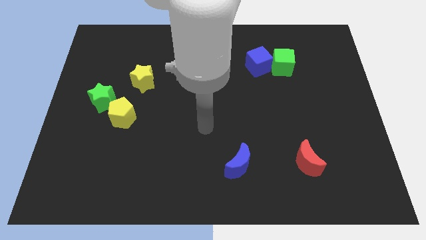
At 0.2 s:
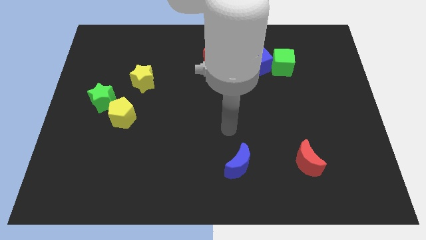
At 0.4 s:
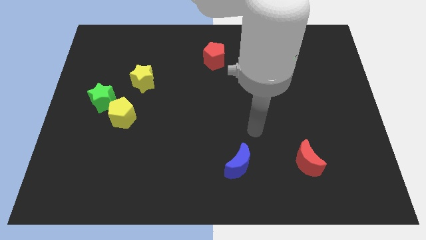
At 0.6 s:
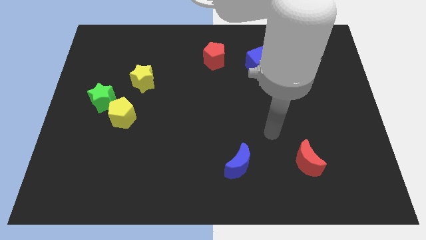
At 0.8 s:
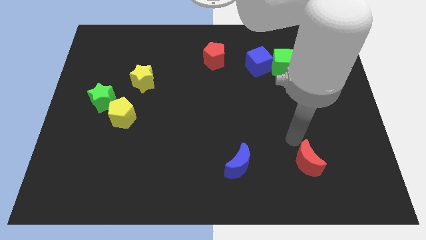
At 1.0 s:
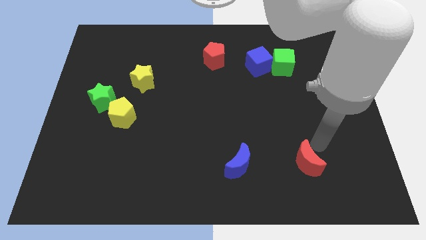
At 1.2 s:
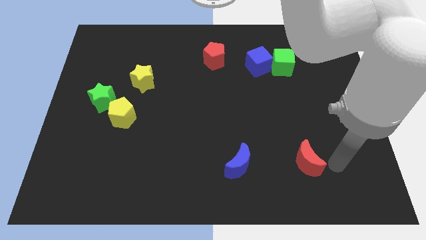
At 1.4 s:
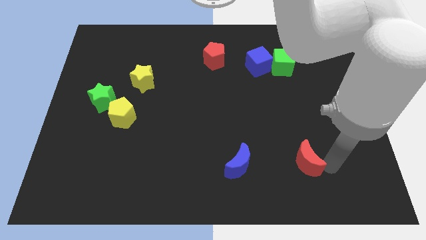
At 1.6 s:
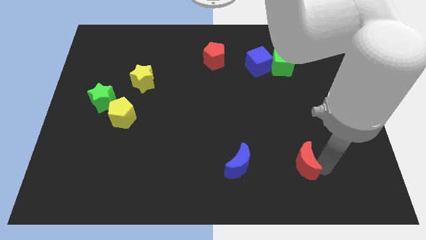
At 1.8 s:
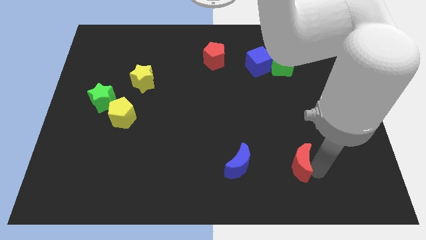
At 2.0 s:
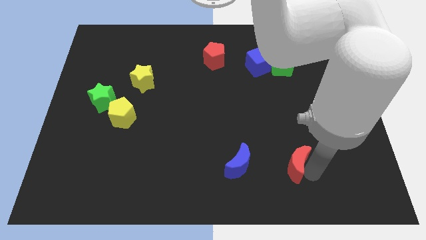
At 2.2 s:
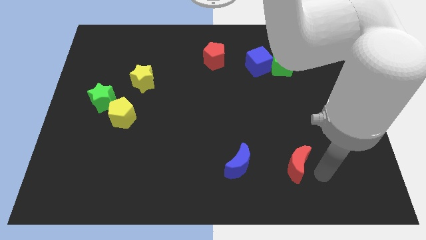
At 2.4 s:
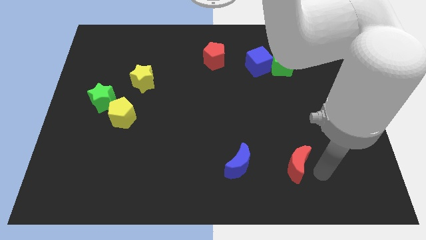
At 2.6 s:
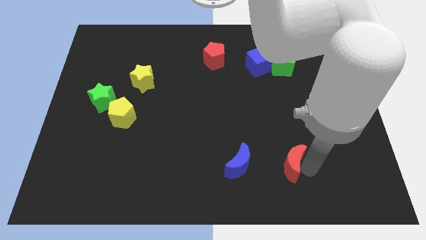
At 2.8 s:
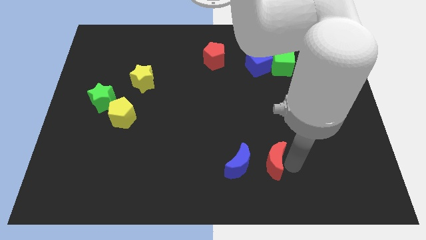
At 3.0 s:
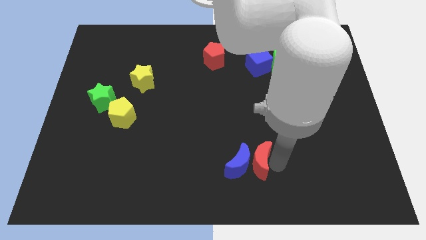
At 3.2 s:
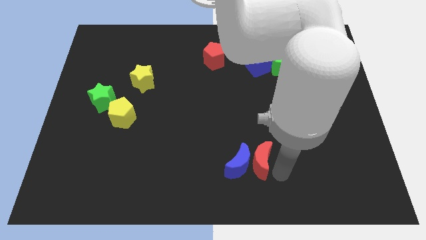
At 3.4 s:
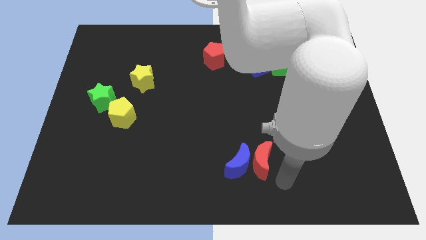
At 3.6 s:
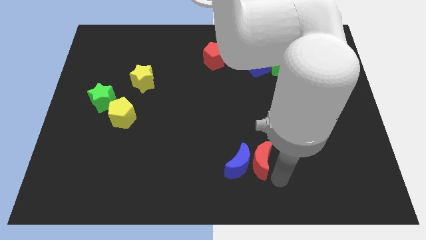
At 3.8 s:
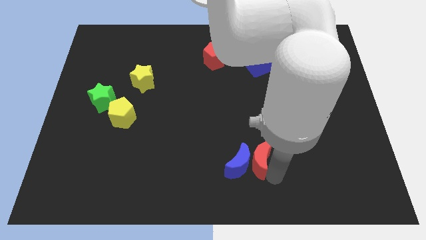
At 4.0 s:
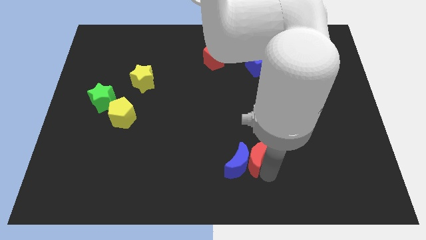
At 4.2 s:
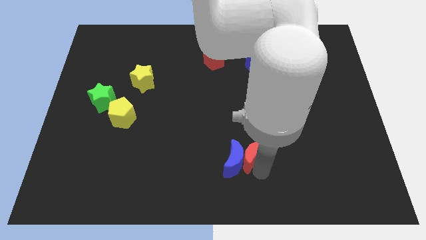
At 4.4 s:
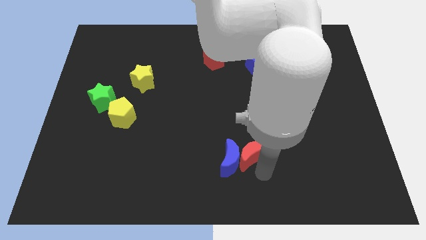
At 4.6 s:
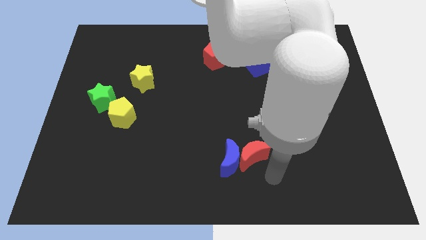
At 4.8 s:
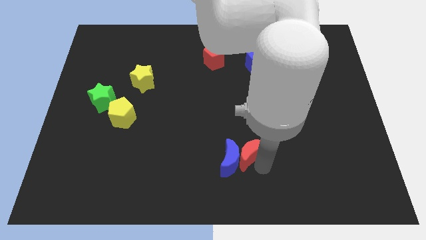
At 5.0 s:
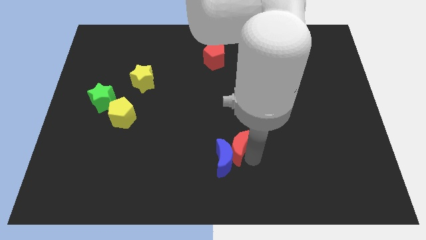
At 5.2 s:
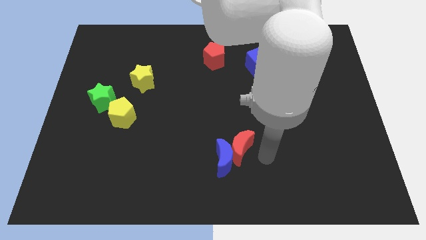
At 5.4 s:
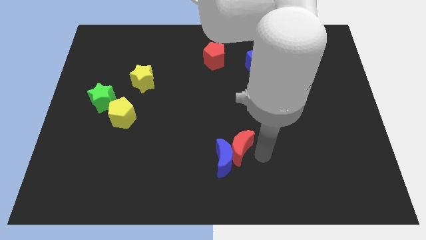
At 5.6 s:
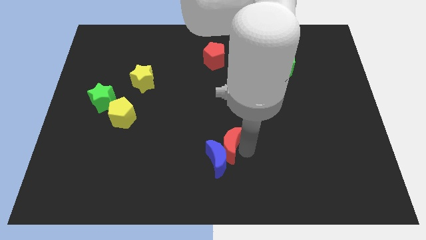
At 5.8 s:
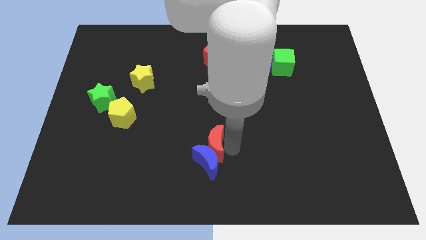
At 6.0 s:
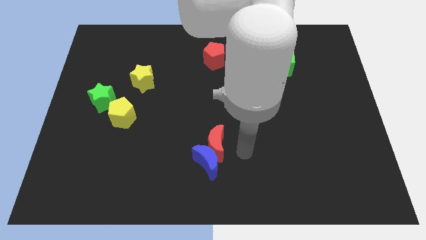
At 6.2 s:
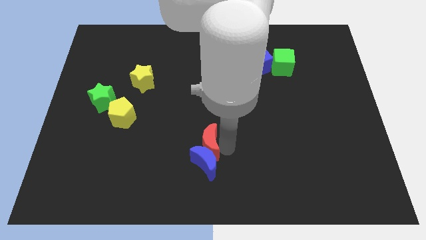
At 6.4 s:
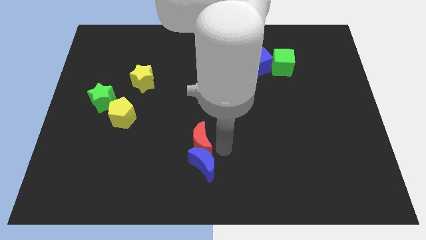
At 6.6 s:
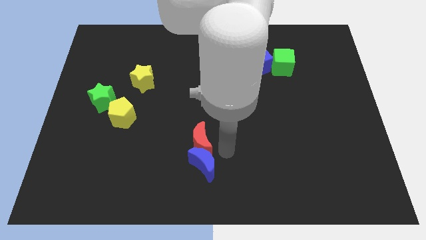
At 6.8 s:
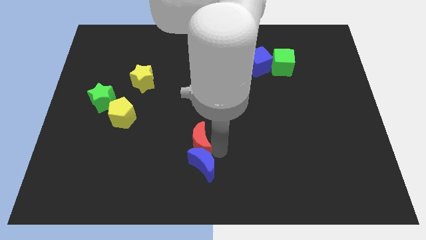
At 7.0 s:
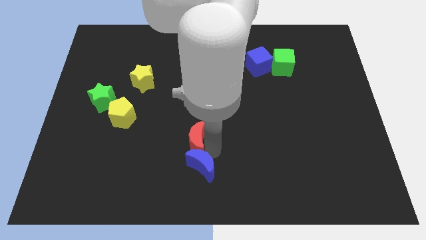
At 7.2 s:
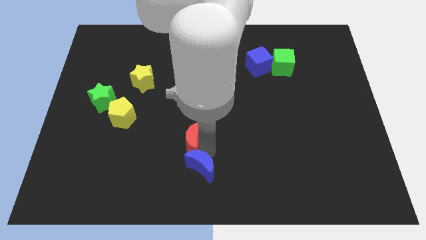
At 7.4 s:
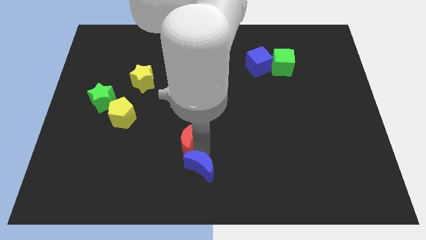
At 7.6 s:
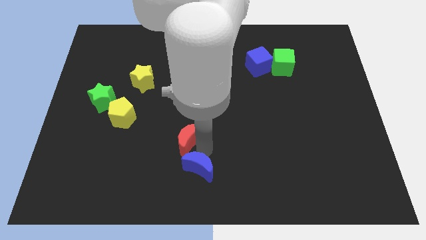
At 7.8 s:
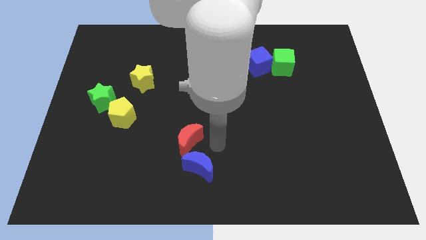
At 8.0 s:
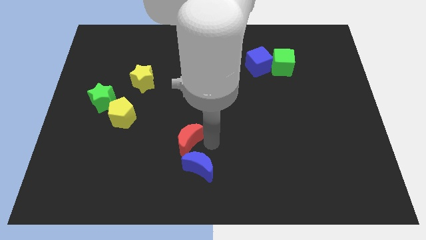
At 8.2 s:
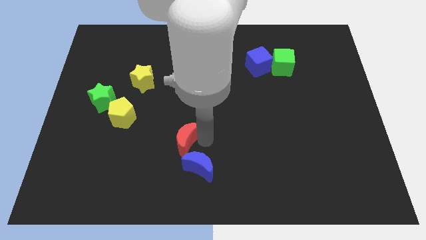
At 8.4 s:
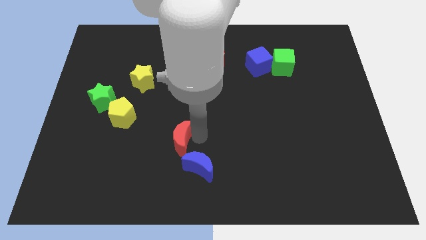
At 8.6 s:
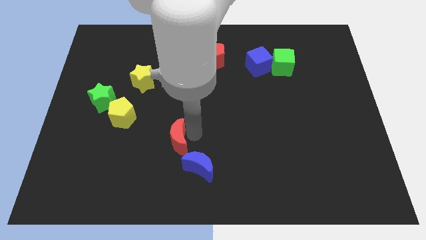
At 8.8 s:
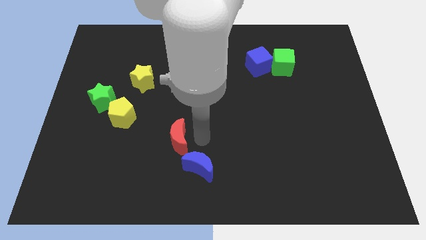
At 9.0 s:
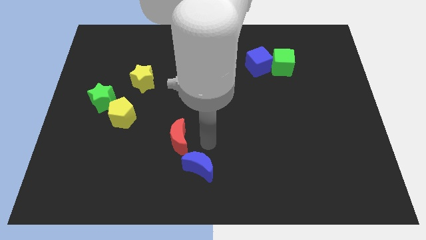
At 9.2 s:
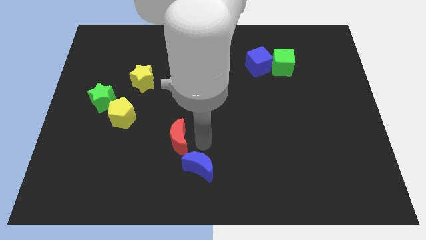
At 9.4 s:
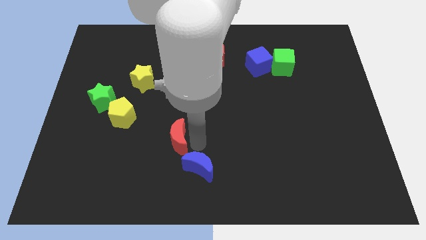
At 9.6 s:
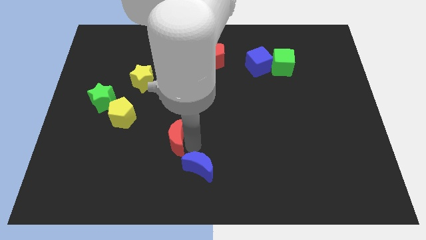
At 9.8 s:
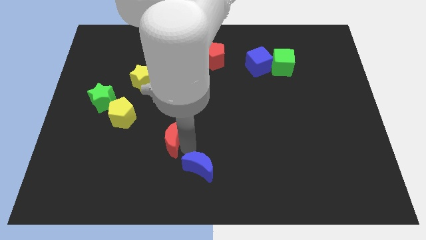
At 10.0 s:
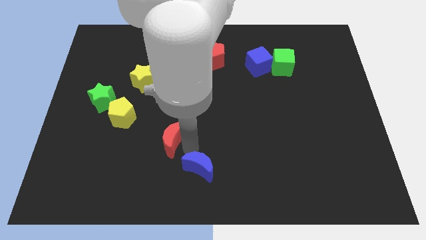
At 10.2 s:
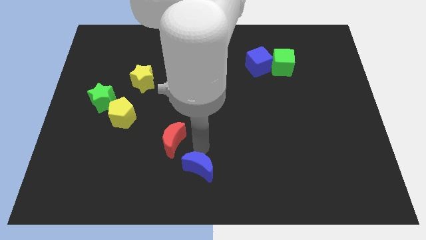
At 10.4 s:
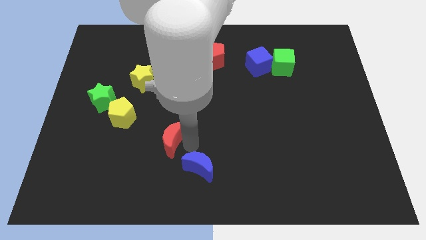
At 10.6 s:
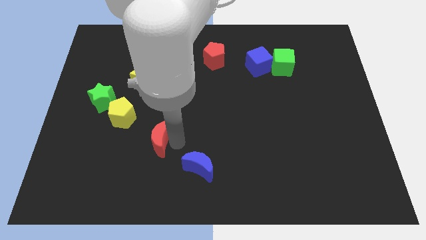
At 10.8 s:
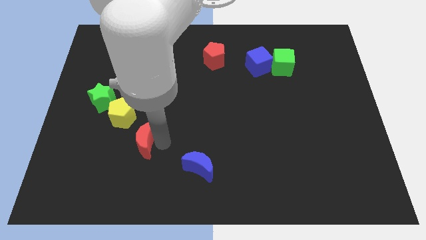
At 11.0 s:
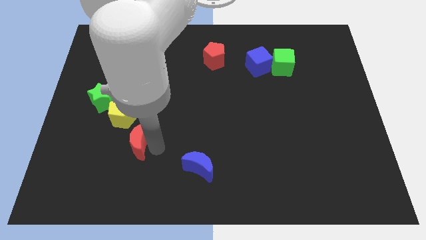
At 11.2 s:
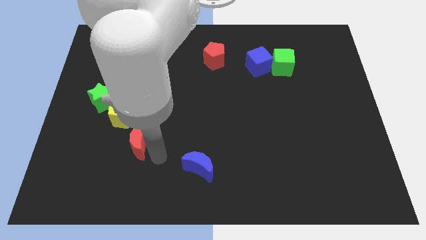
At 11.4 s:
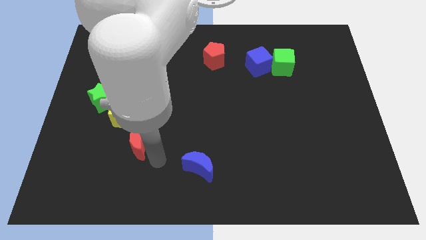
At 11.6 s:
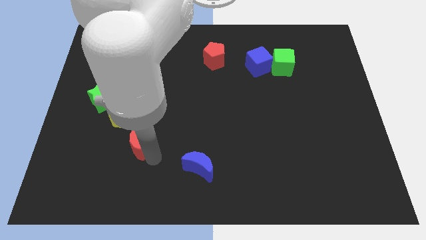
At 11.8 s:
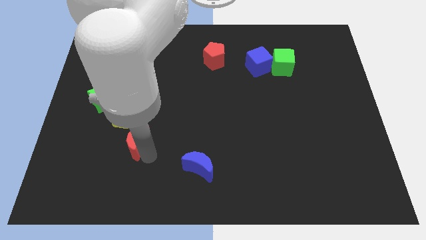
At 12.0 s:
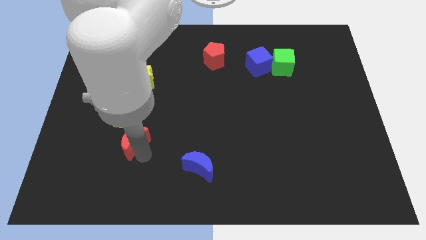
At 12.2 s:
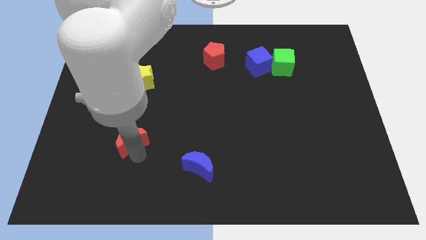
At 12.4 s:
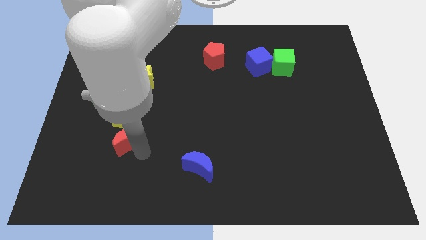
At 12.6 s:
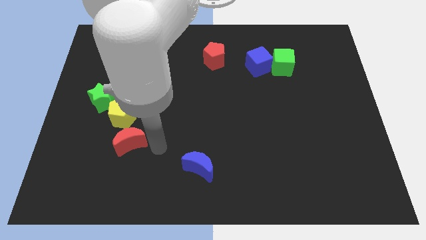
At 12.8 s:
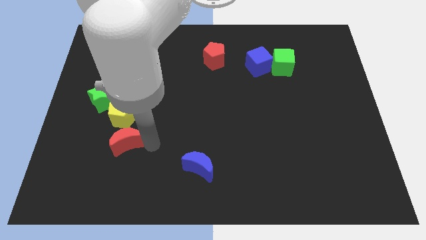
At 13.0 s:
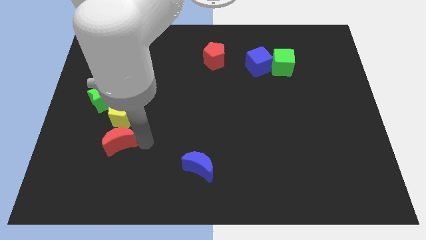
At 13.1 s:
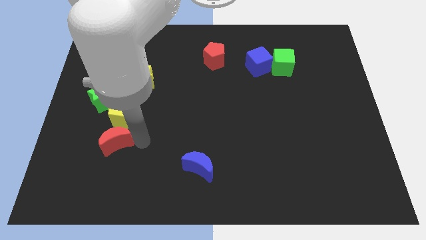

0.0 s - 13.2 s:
put the red moon below the green star

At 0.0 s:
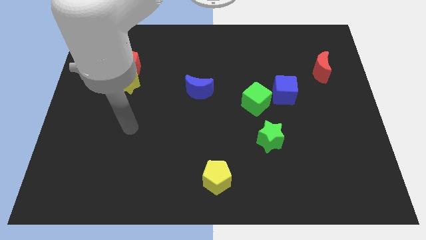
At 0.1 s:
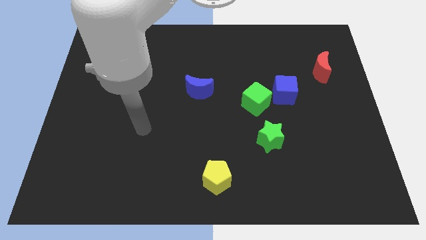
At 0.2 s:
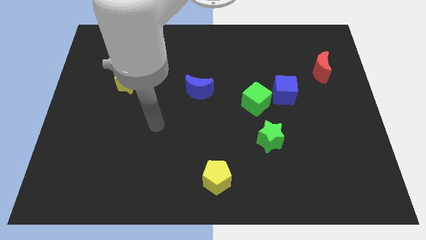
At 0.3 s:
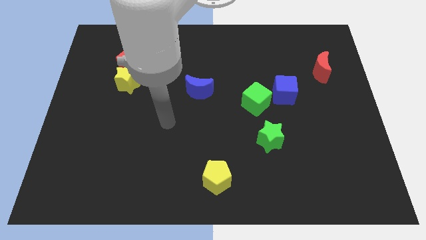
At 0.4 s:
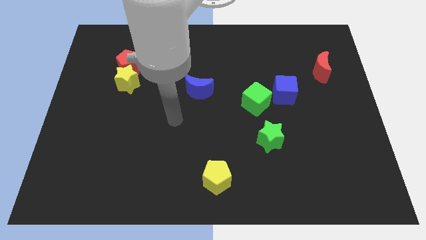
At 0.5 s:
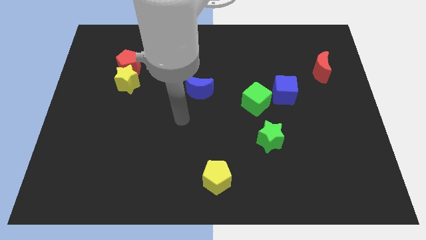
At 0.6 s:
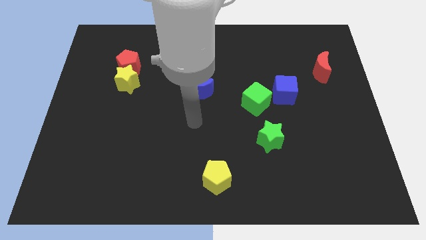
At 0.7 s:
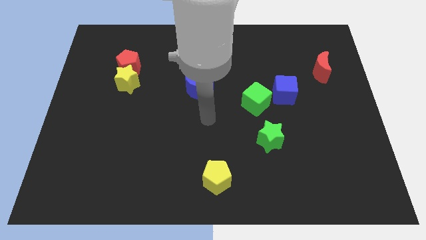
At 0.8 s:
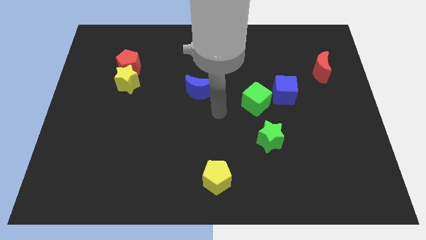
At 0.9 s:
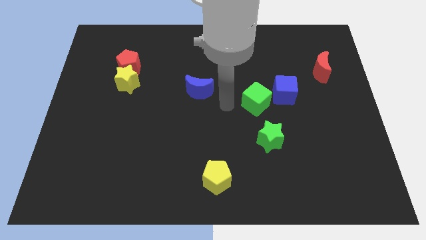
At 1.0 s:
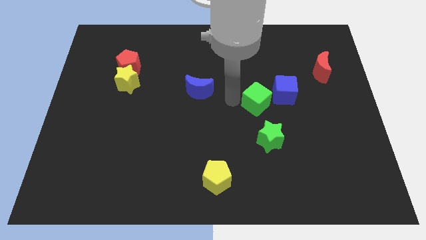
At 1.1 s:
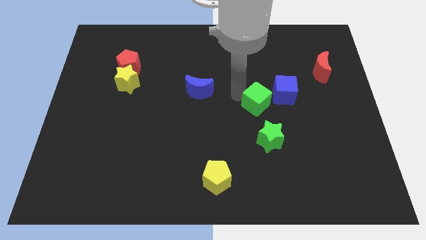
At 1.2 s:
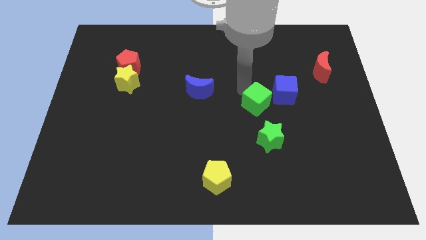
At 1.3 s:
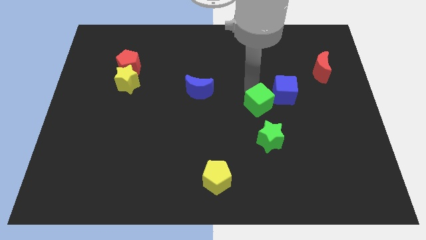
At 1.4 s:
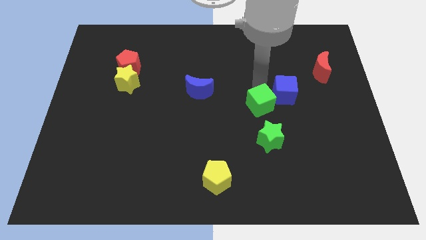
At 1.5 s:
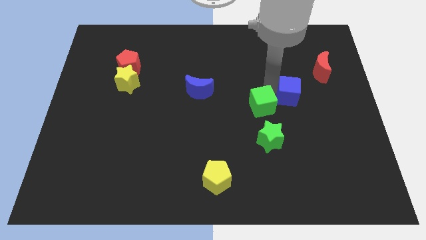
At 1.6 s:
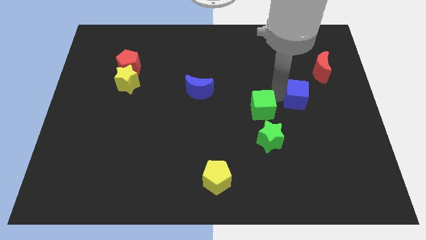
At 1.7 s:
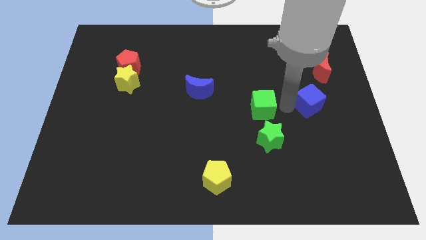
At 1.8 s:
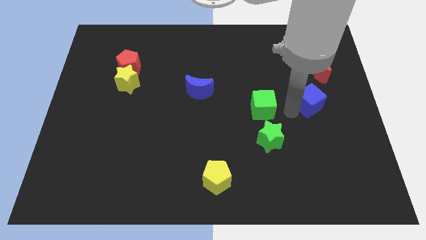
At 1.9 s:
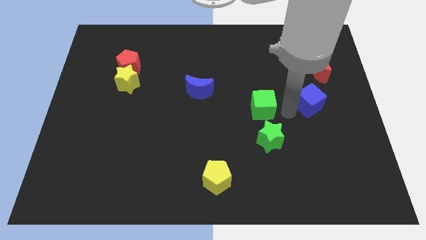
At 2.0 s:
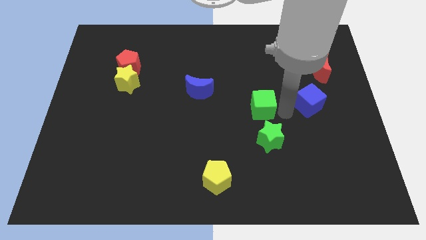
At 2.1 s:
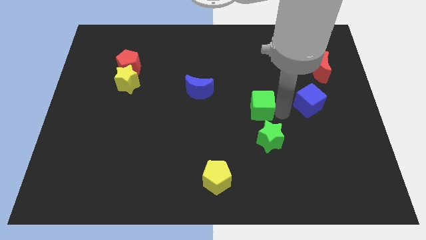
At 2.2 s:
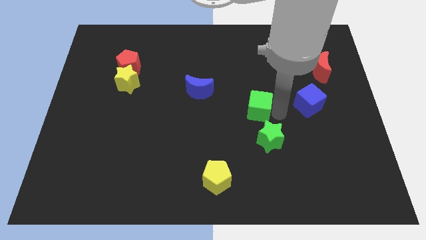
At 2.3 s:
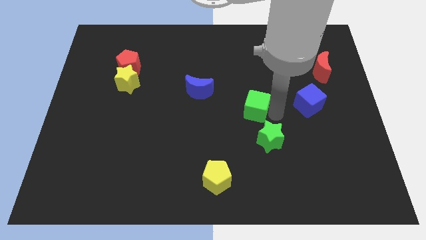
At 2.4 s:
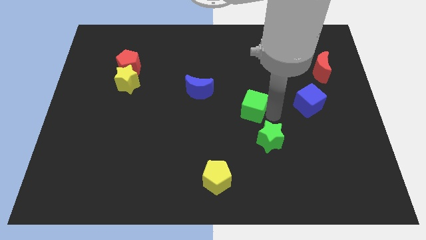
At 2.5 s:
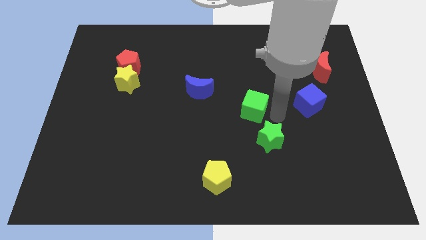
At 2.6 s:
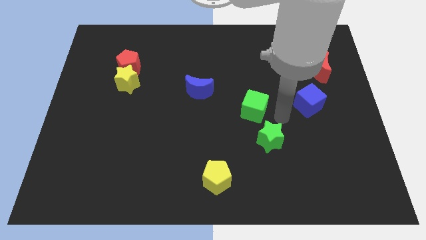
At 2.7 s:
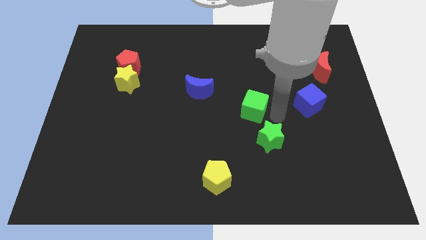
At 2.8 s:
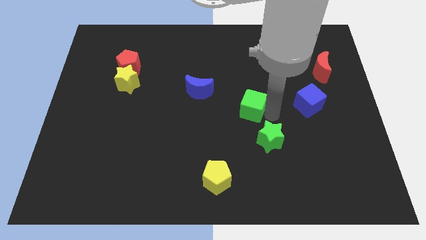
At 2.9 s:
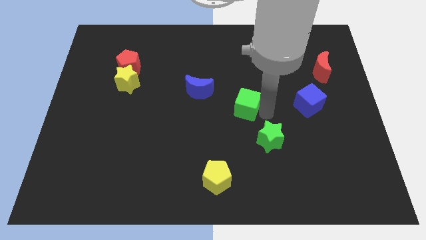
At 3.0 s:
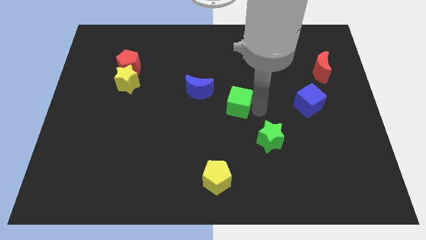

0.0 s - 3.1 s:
put the green cube diagonally down and to the right of the blue moon
